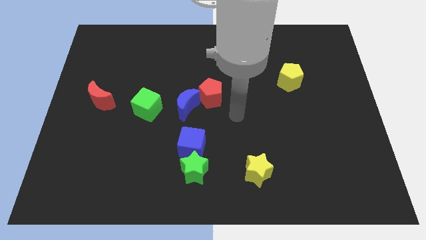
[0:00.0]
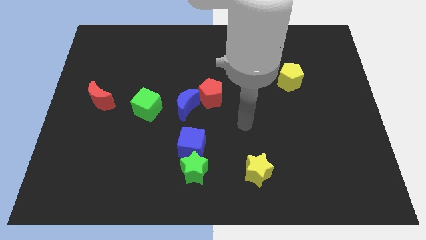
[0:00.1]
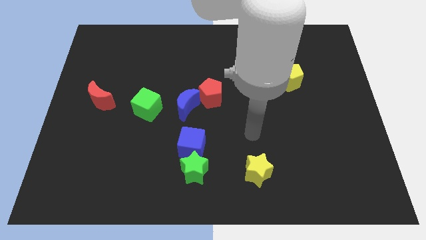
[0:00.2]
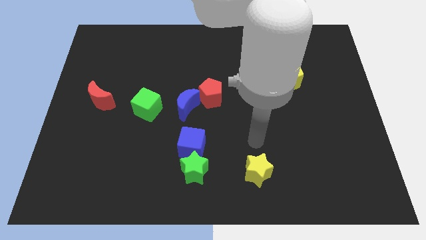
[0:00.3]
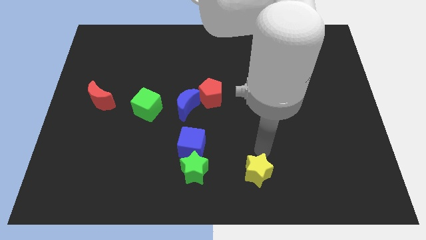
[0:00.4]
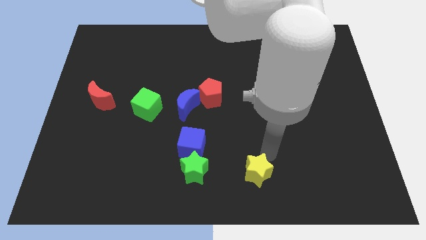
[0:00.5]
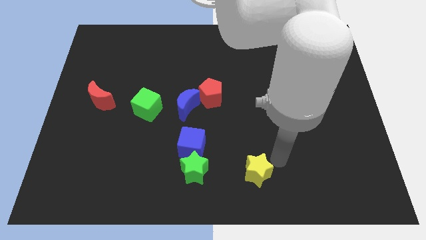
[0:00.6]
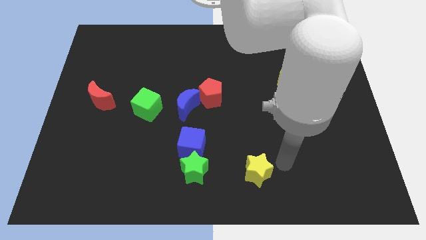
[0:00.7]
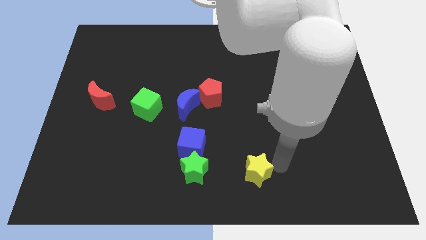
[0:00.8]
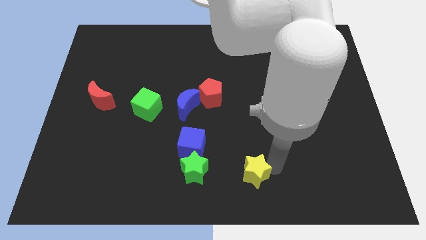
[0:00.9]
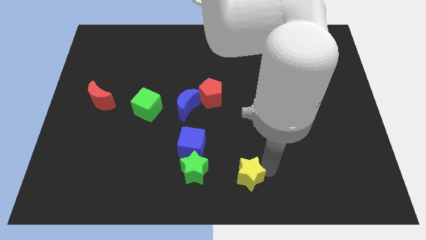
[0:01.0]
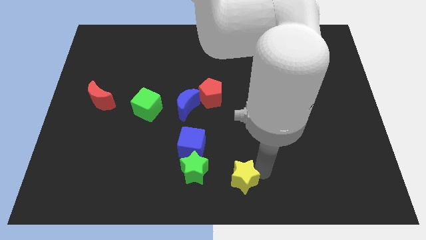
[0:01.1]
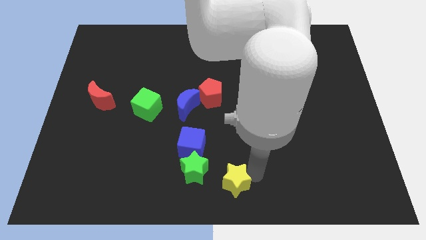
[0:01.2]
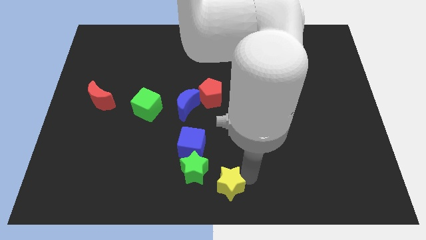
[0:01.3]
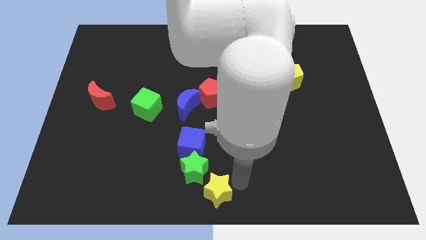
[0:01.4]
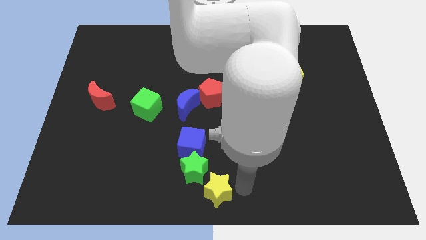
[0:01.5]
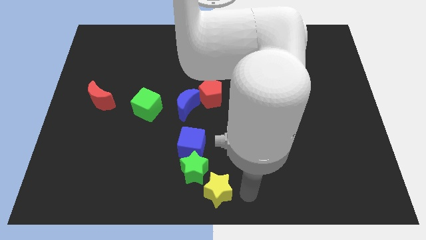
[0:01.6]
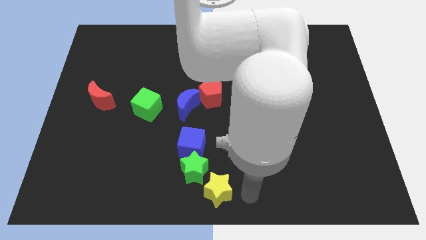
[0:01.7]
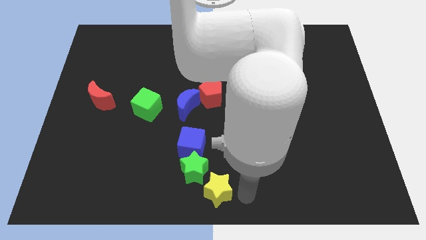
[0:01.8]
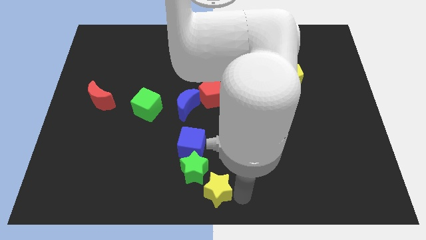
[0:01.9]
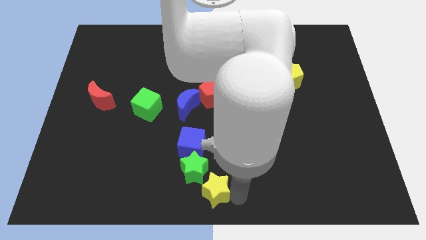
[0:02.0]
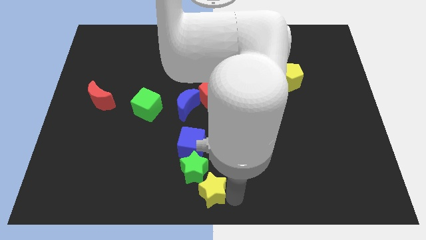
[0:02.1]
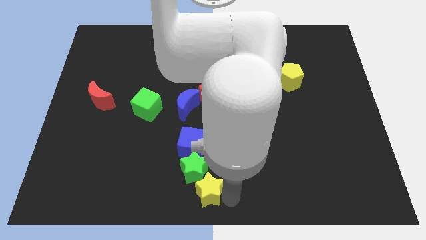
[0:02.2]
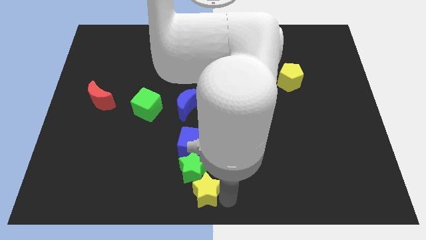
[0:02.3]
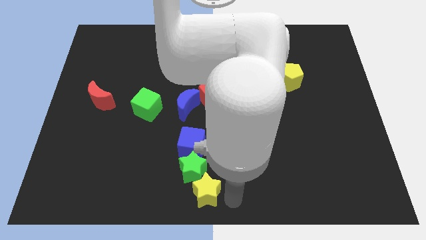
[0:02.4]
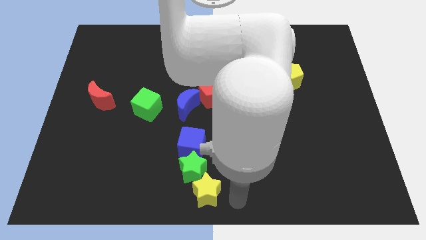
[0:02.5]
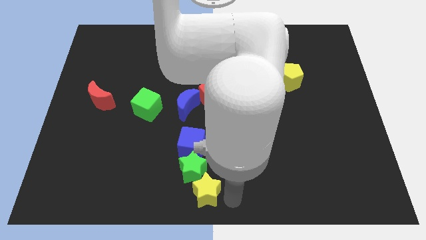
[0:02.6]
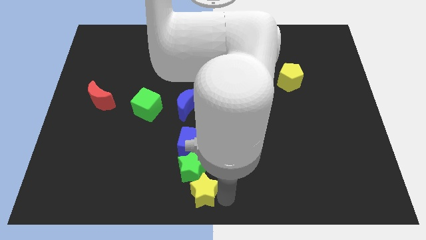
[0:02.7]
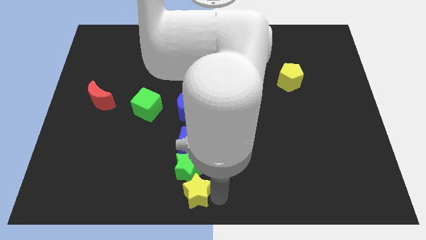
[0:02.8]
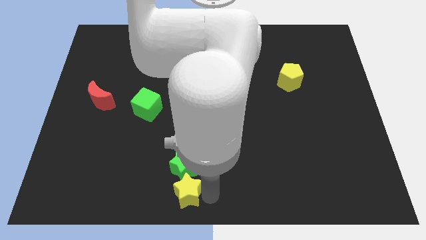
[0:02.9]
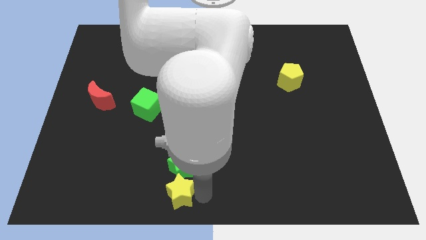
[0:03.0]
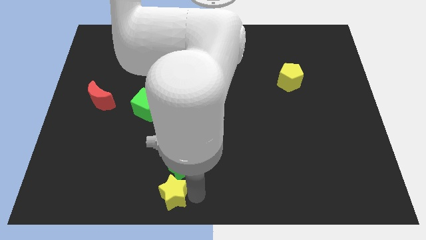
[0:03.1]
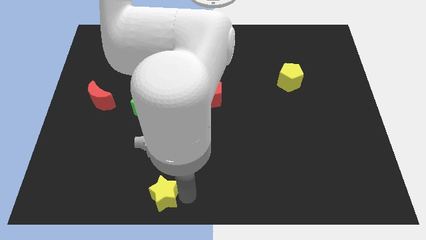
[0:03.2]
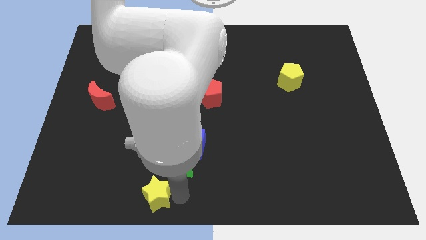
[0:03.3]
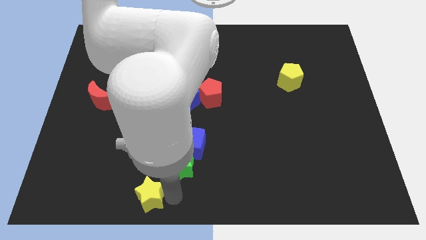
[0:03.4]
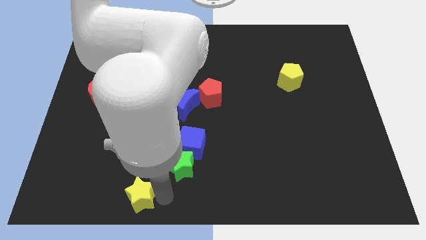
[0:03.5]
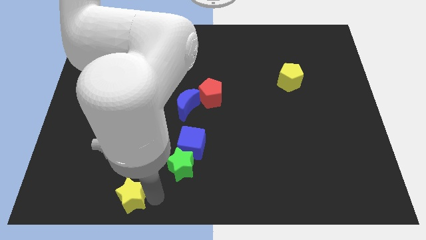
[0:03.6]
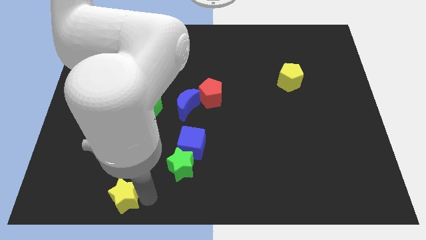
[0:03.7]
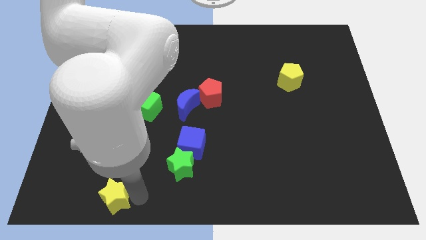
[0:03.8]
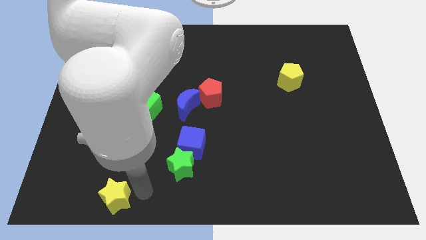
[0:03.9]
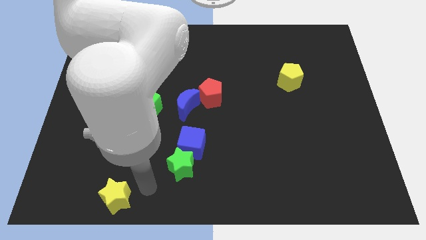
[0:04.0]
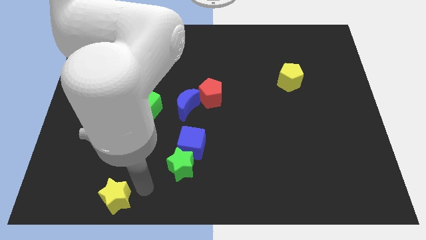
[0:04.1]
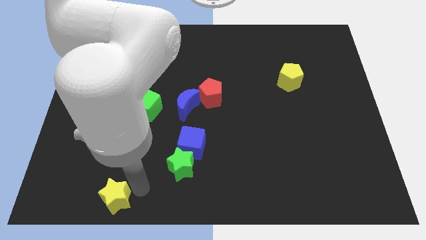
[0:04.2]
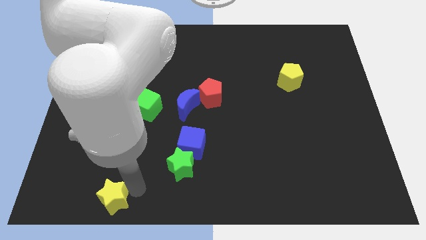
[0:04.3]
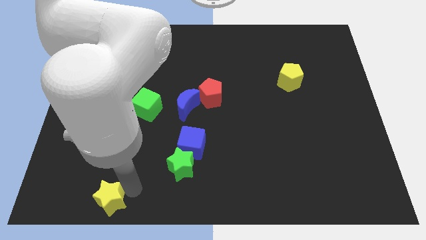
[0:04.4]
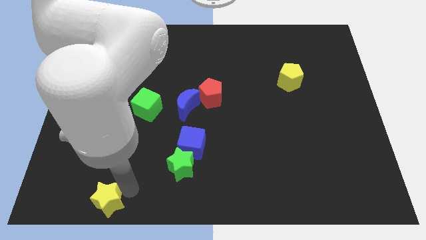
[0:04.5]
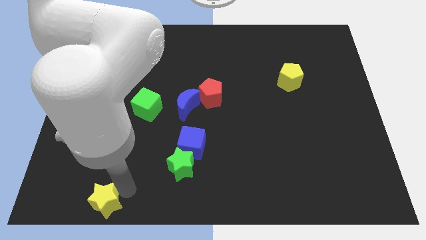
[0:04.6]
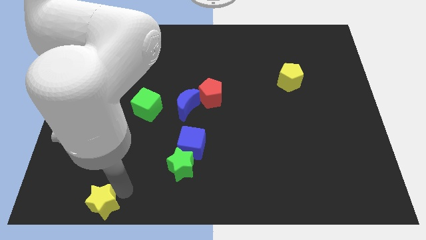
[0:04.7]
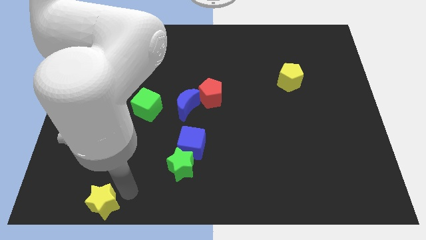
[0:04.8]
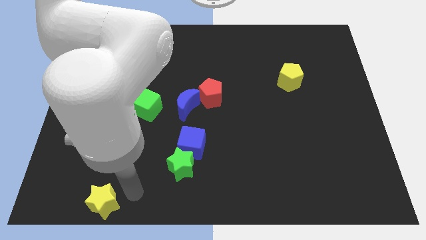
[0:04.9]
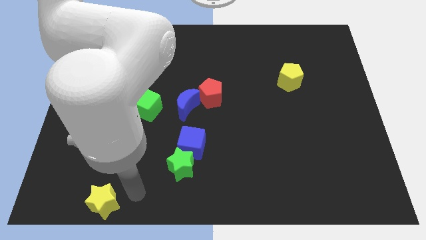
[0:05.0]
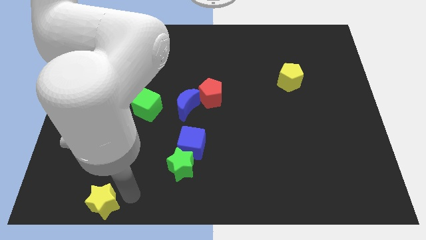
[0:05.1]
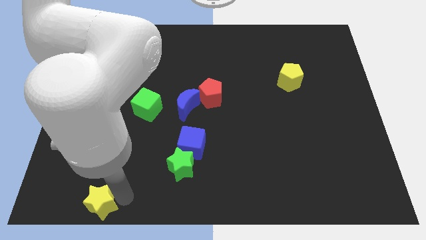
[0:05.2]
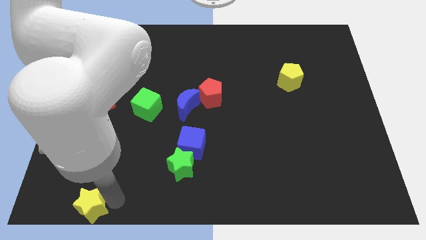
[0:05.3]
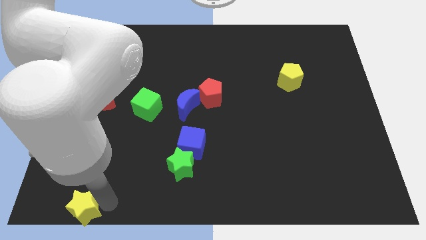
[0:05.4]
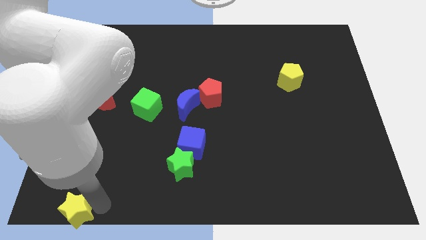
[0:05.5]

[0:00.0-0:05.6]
push the yellow star to the lower left corner

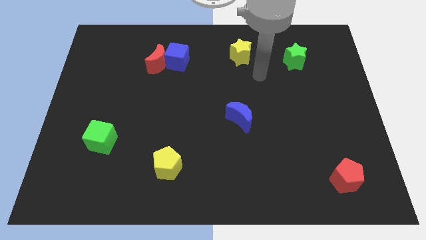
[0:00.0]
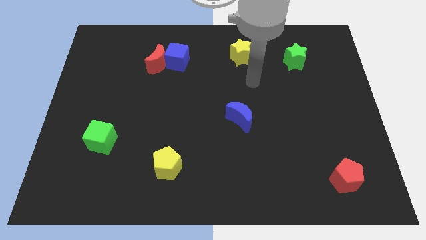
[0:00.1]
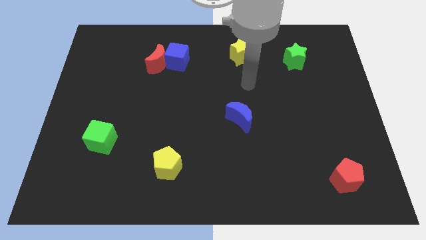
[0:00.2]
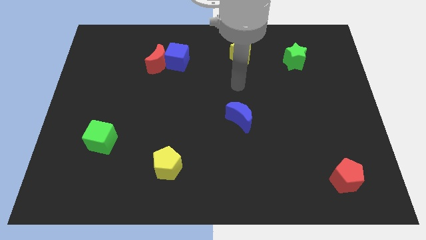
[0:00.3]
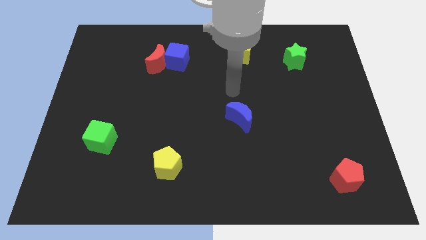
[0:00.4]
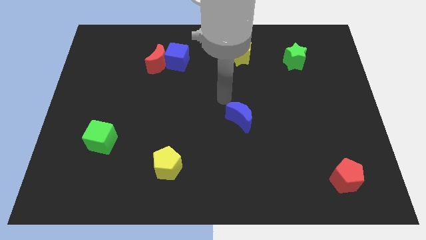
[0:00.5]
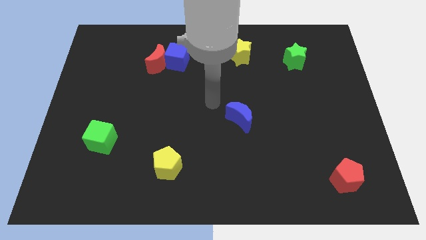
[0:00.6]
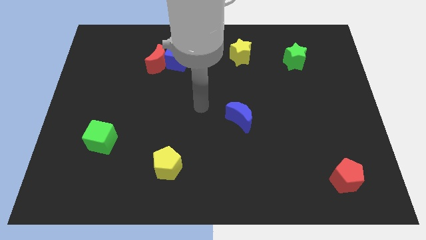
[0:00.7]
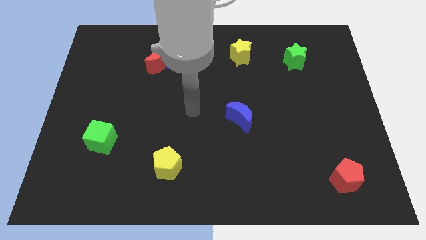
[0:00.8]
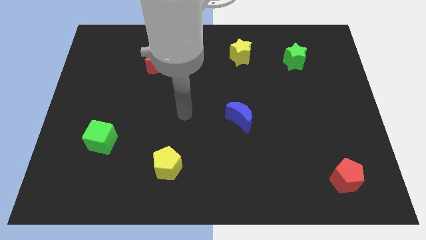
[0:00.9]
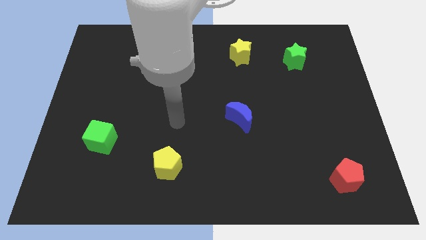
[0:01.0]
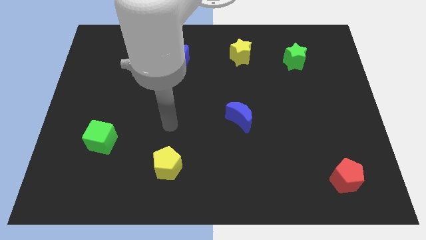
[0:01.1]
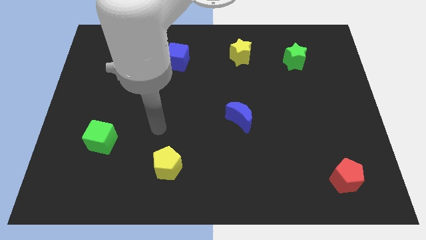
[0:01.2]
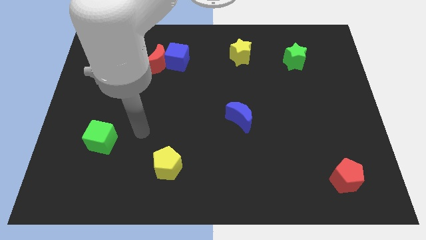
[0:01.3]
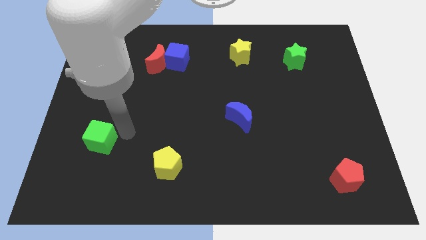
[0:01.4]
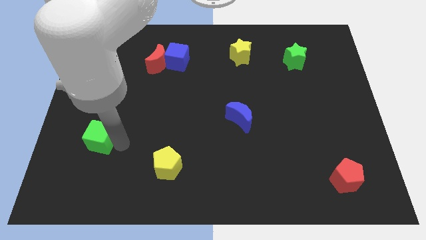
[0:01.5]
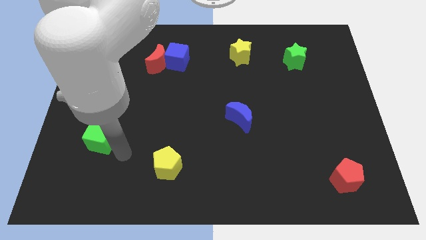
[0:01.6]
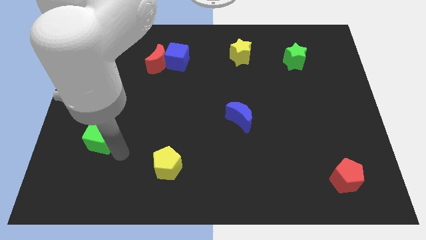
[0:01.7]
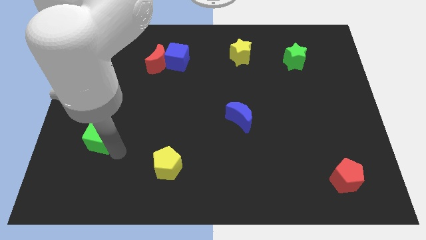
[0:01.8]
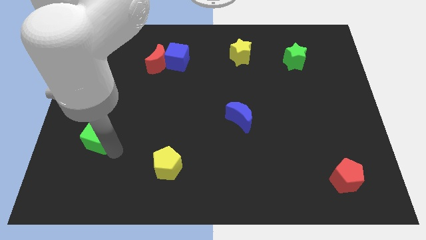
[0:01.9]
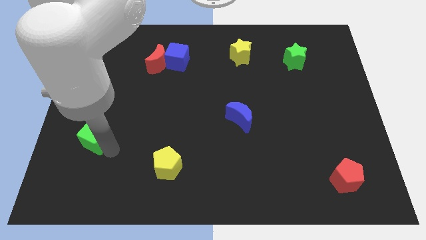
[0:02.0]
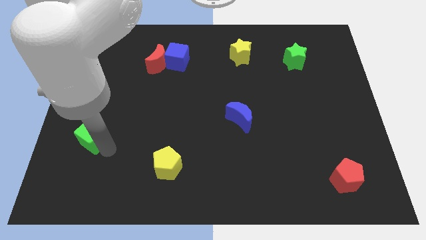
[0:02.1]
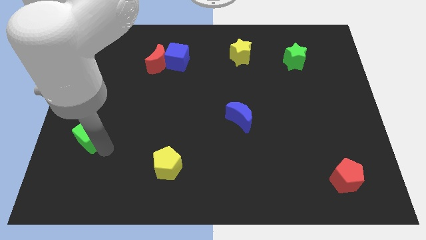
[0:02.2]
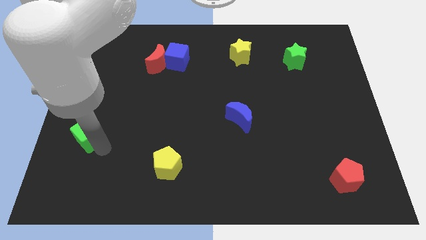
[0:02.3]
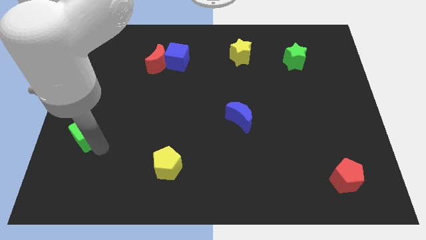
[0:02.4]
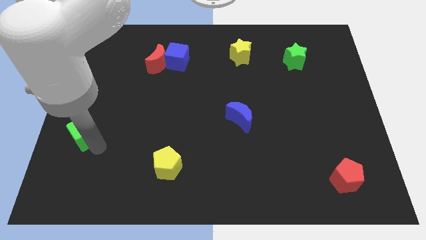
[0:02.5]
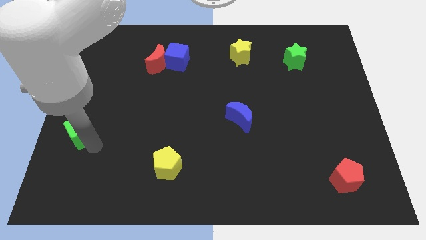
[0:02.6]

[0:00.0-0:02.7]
slide the green cube to the left side
